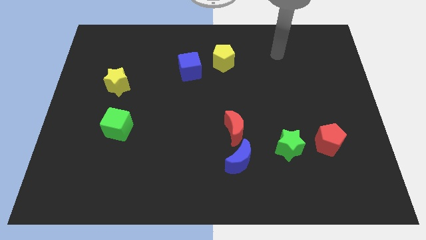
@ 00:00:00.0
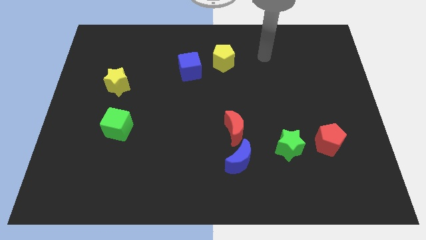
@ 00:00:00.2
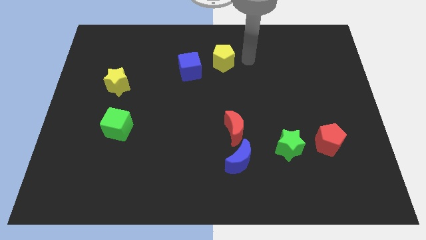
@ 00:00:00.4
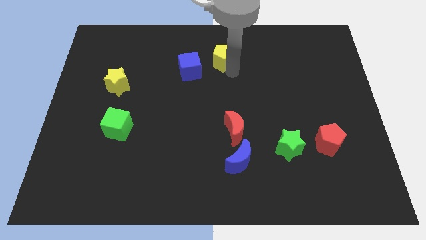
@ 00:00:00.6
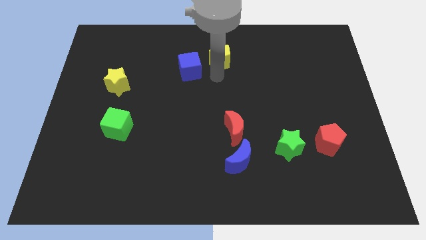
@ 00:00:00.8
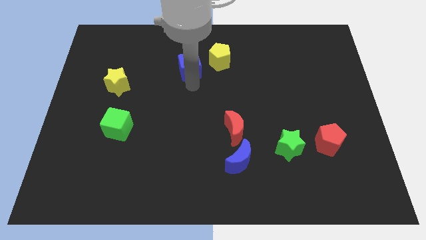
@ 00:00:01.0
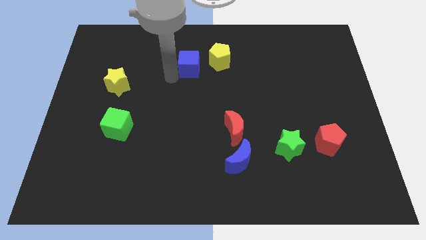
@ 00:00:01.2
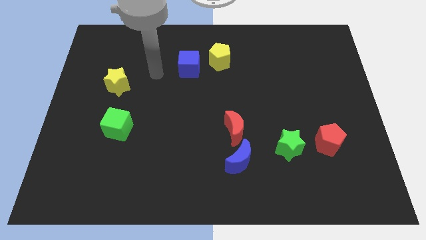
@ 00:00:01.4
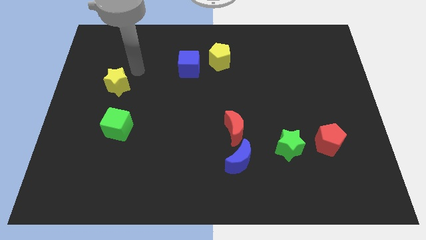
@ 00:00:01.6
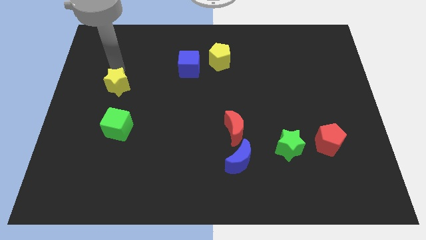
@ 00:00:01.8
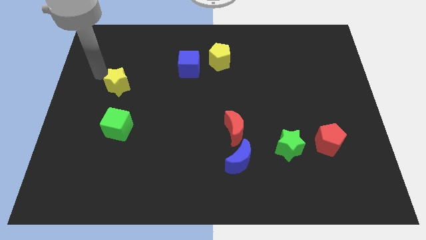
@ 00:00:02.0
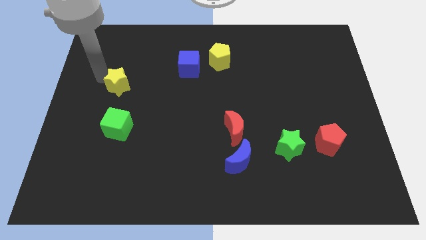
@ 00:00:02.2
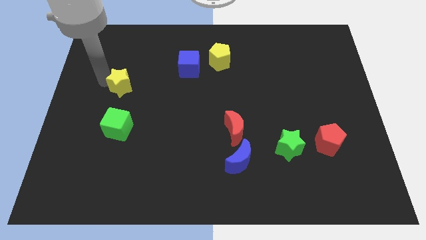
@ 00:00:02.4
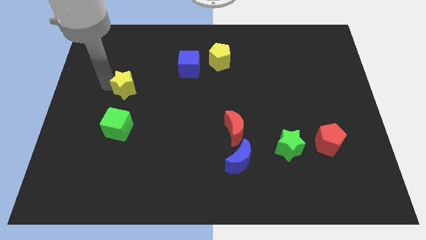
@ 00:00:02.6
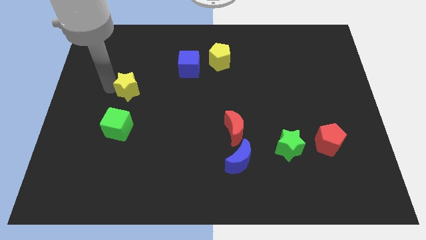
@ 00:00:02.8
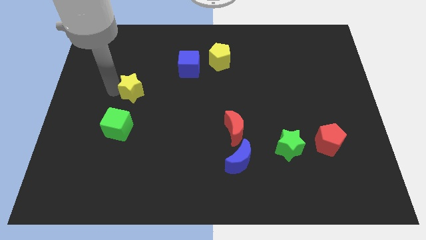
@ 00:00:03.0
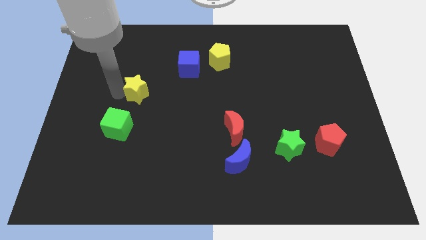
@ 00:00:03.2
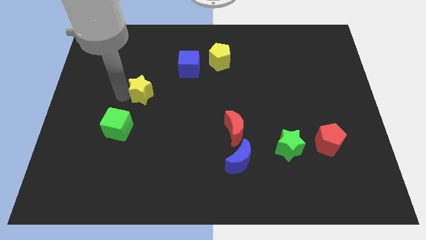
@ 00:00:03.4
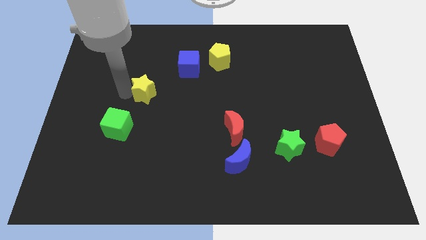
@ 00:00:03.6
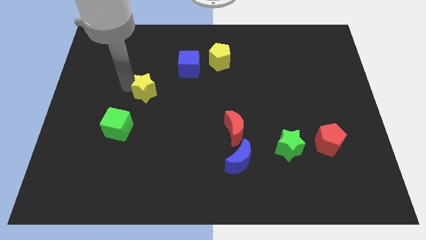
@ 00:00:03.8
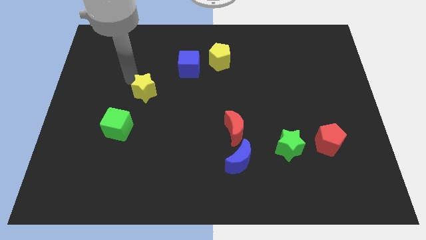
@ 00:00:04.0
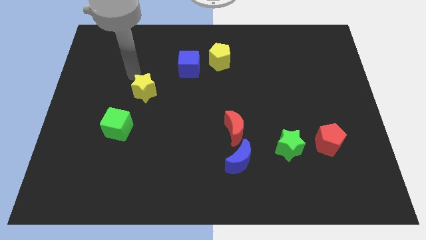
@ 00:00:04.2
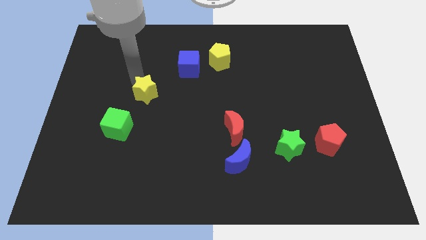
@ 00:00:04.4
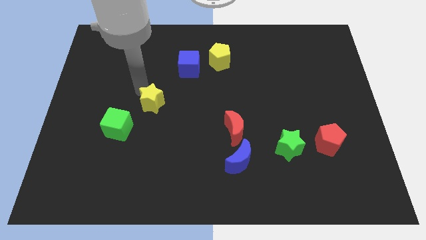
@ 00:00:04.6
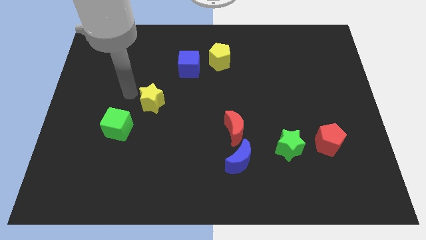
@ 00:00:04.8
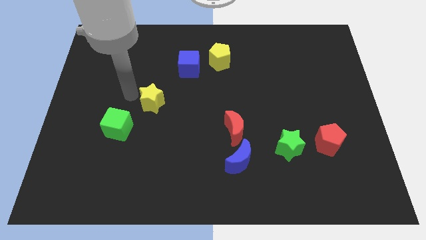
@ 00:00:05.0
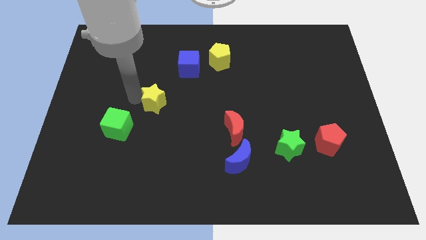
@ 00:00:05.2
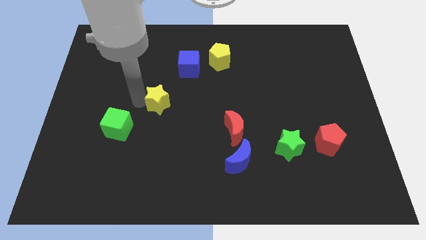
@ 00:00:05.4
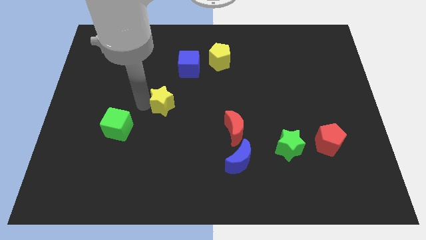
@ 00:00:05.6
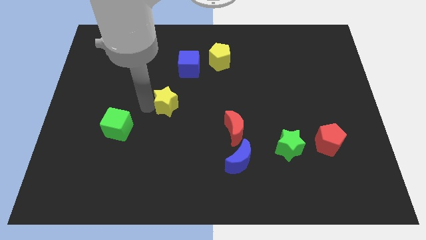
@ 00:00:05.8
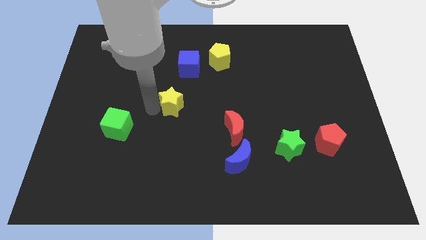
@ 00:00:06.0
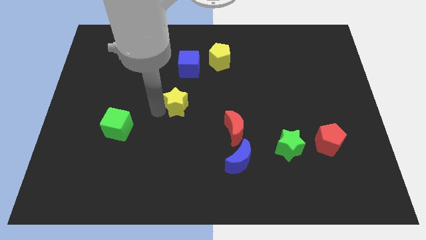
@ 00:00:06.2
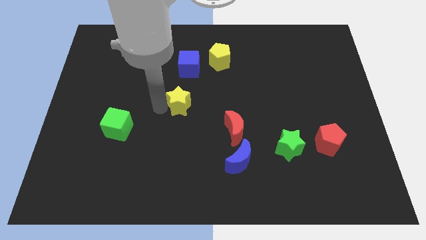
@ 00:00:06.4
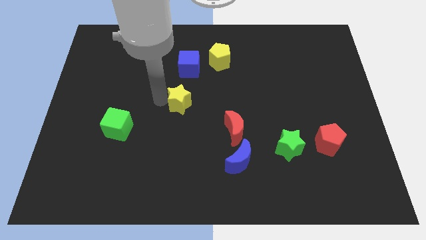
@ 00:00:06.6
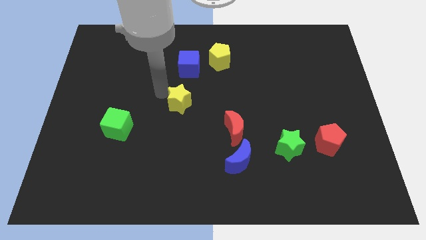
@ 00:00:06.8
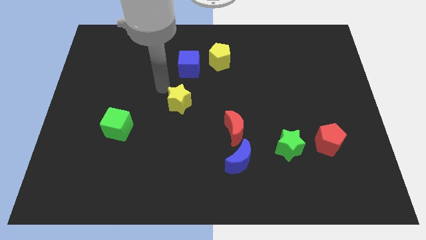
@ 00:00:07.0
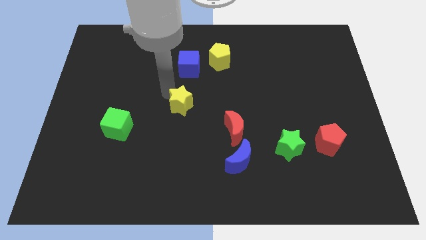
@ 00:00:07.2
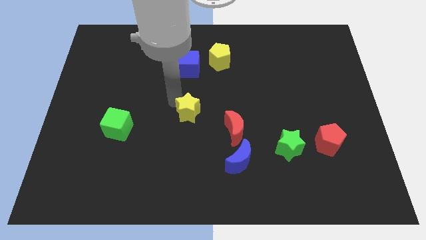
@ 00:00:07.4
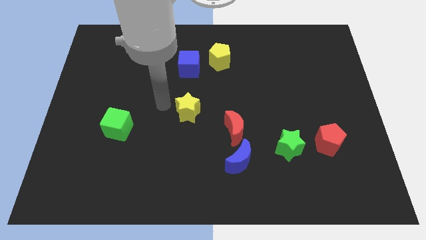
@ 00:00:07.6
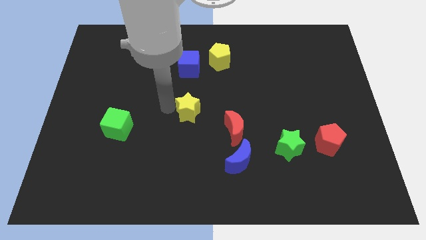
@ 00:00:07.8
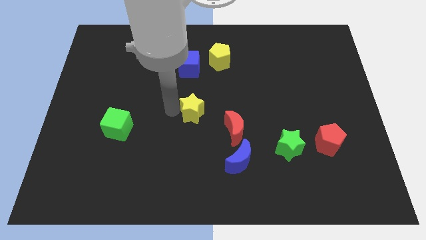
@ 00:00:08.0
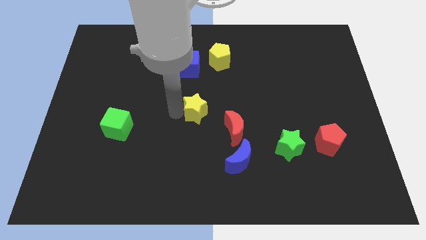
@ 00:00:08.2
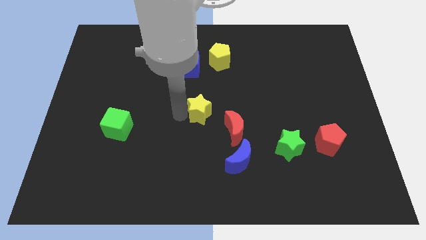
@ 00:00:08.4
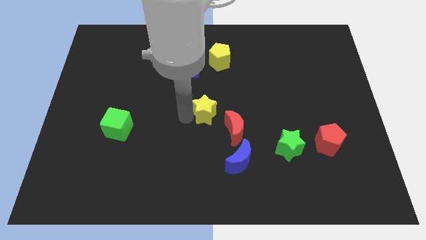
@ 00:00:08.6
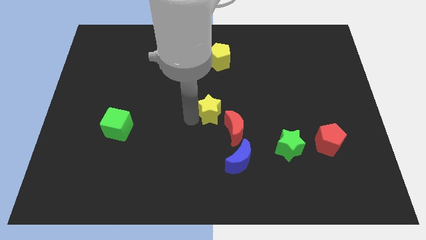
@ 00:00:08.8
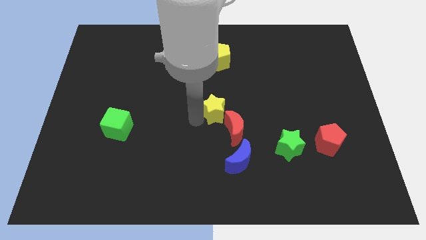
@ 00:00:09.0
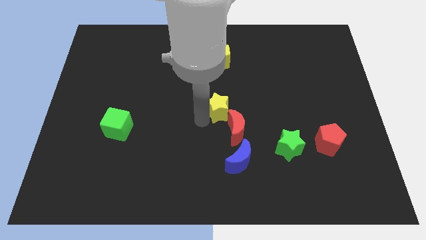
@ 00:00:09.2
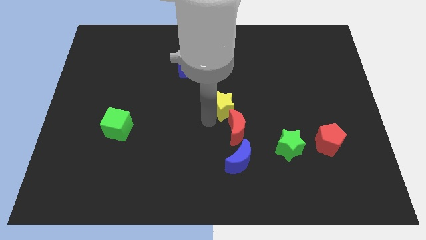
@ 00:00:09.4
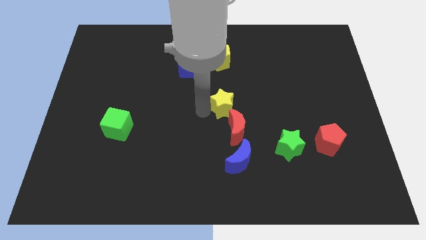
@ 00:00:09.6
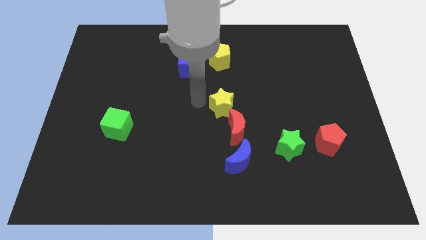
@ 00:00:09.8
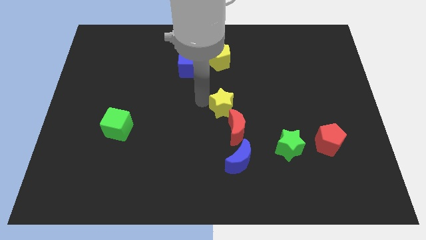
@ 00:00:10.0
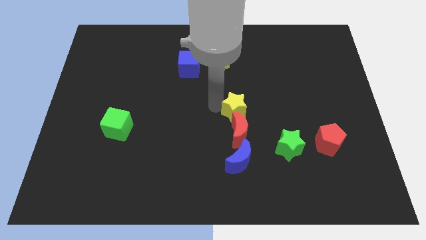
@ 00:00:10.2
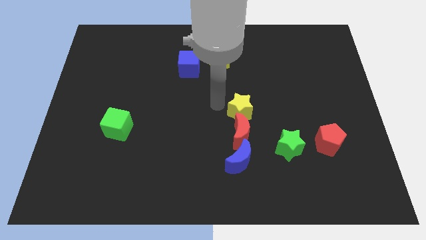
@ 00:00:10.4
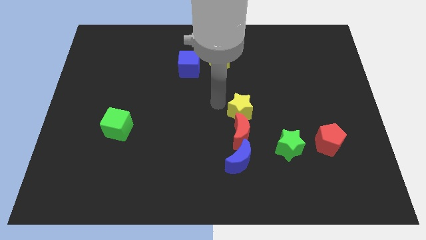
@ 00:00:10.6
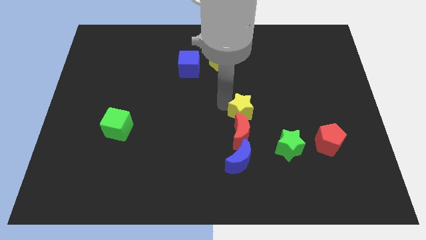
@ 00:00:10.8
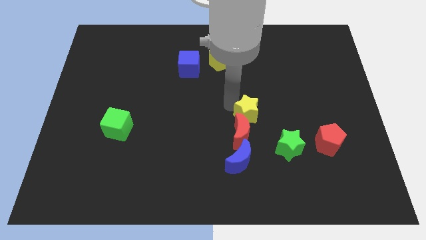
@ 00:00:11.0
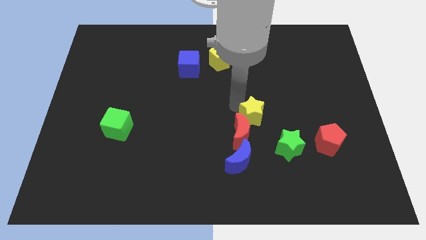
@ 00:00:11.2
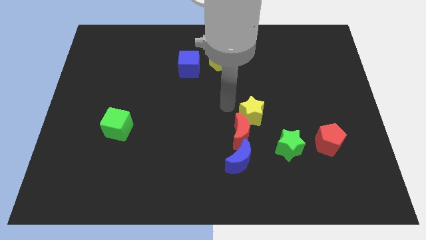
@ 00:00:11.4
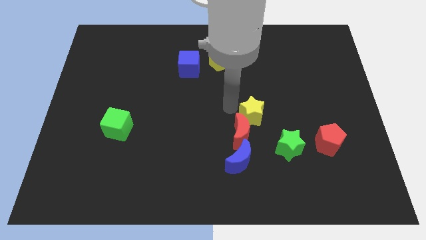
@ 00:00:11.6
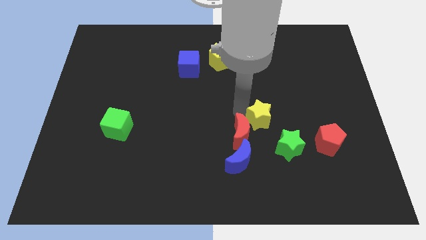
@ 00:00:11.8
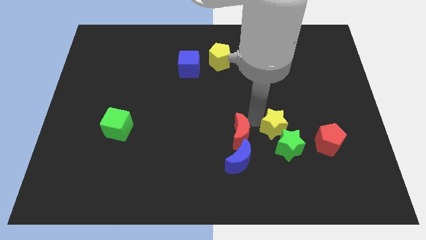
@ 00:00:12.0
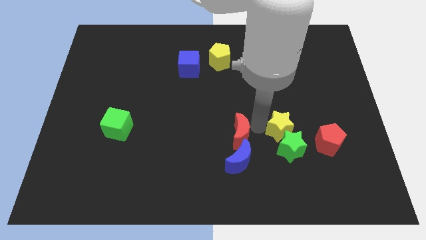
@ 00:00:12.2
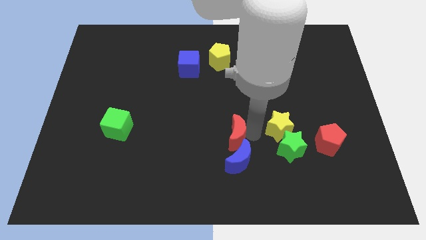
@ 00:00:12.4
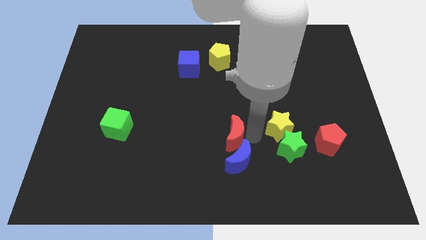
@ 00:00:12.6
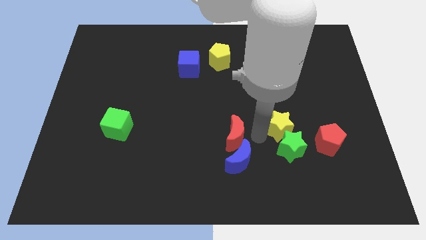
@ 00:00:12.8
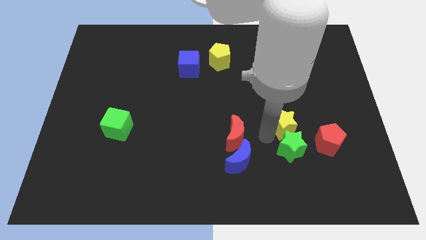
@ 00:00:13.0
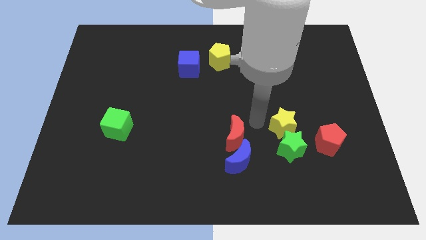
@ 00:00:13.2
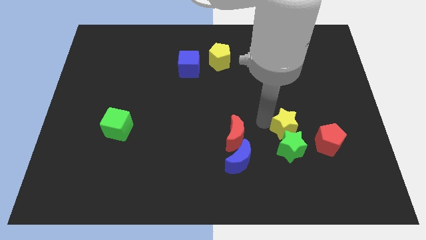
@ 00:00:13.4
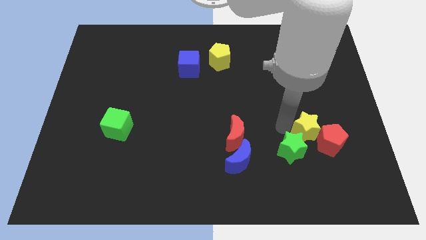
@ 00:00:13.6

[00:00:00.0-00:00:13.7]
slide the yellow star towards the red pentagon
